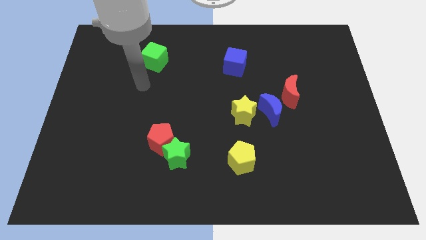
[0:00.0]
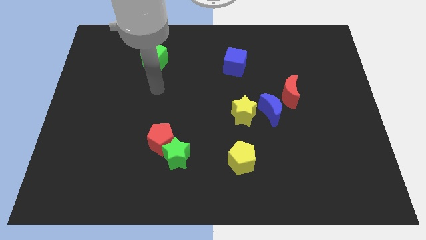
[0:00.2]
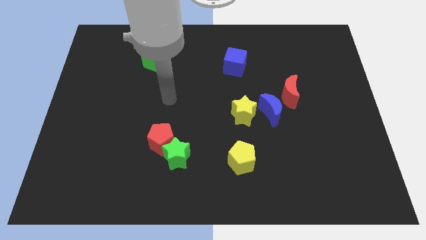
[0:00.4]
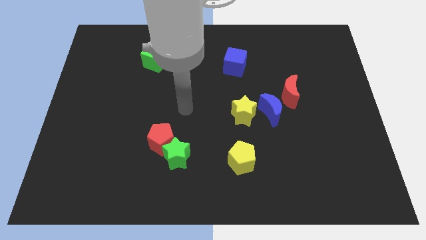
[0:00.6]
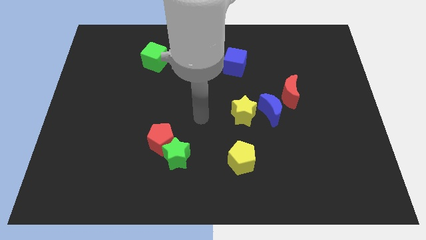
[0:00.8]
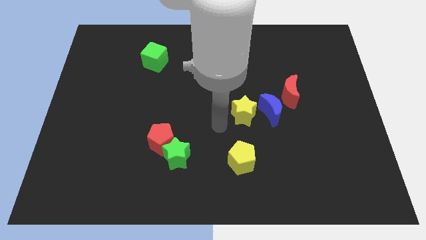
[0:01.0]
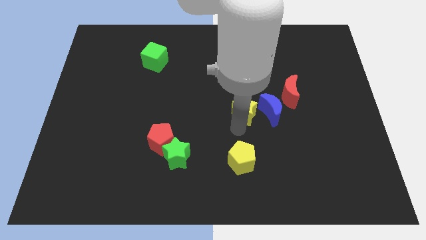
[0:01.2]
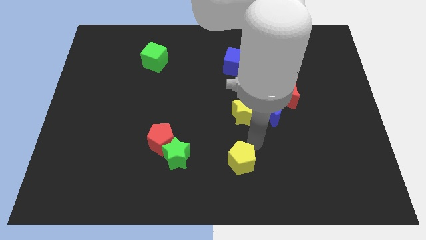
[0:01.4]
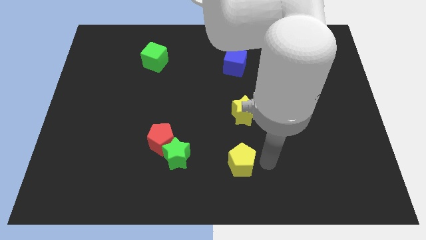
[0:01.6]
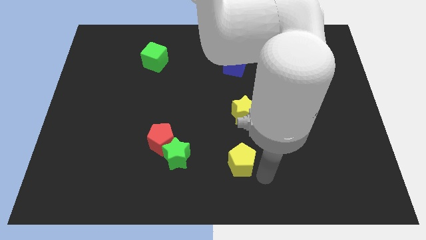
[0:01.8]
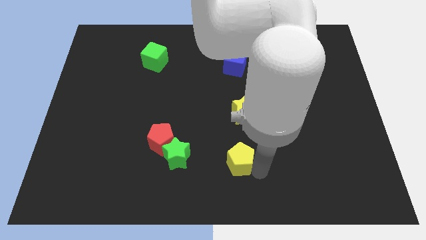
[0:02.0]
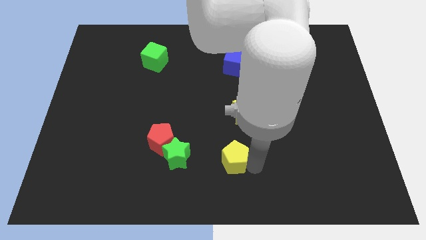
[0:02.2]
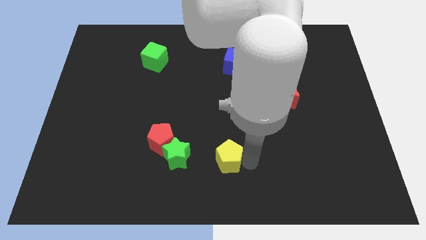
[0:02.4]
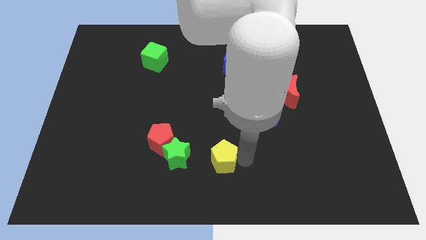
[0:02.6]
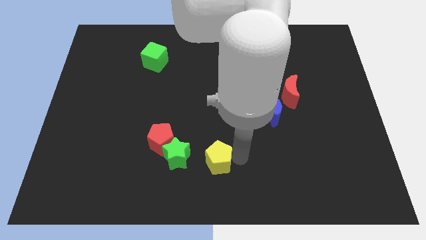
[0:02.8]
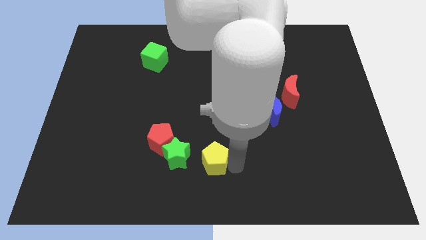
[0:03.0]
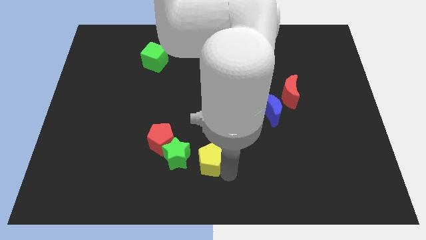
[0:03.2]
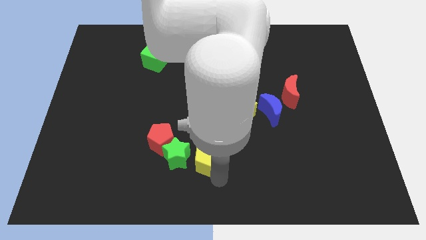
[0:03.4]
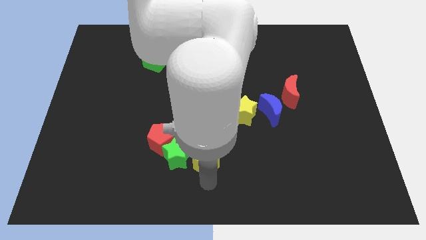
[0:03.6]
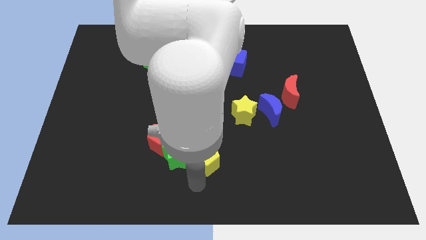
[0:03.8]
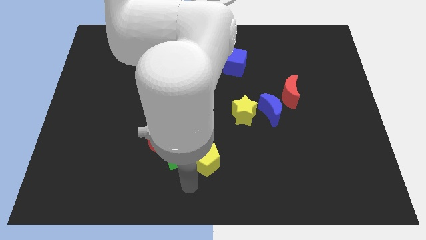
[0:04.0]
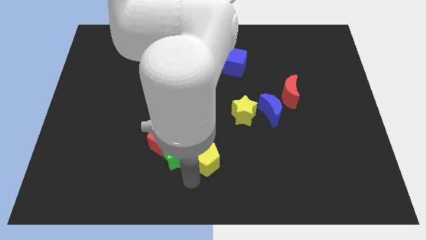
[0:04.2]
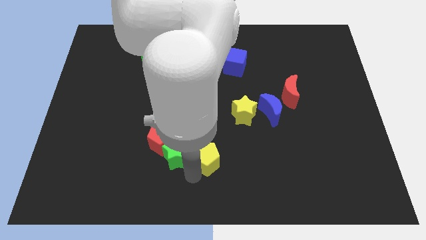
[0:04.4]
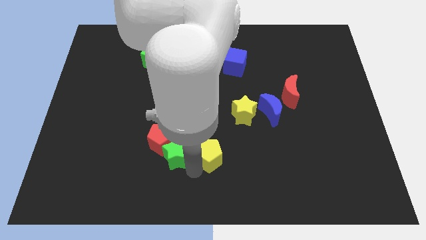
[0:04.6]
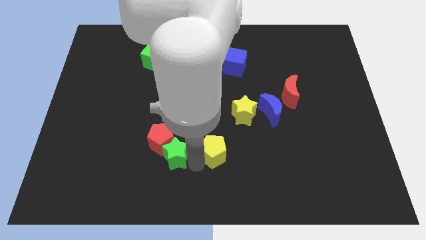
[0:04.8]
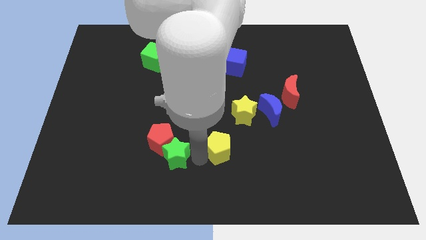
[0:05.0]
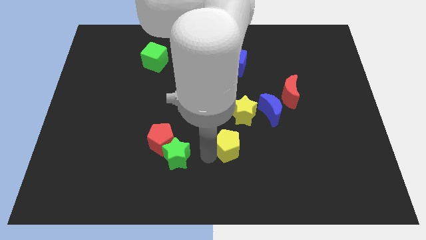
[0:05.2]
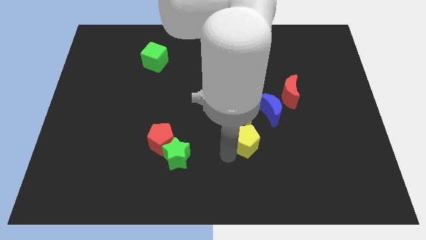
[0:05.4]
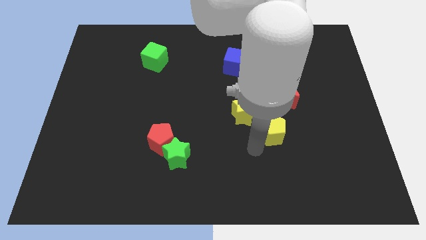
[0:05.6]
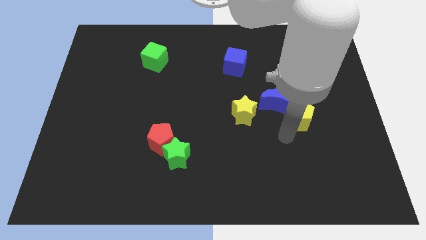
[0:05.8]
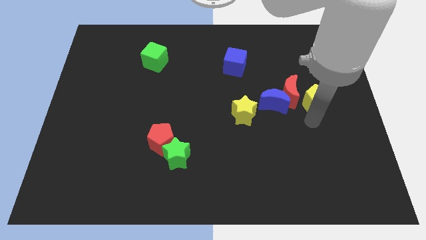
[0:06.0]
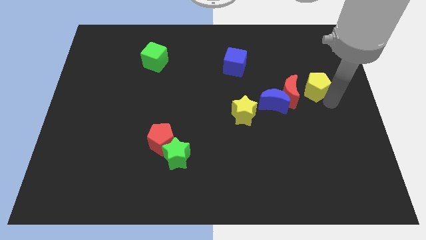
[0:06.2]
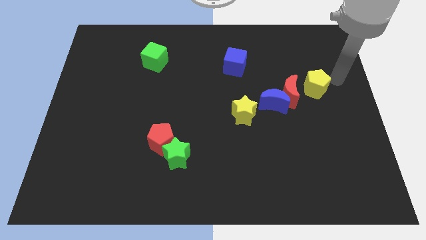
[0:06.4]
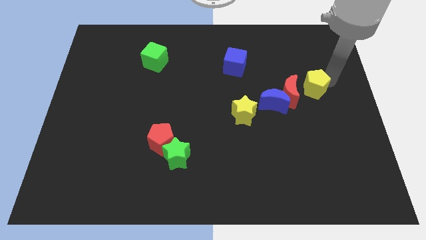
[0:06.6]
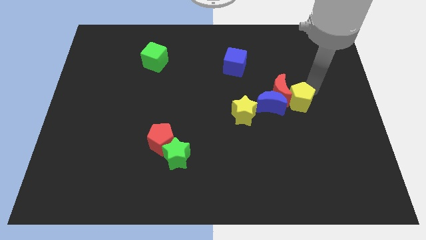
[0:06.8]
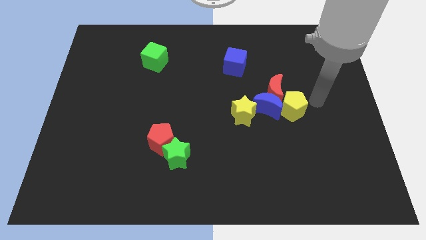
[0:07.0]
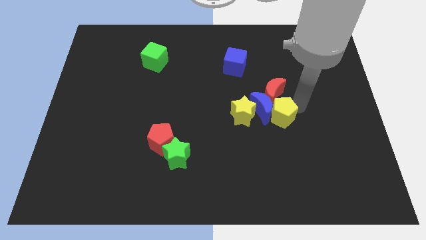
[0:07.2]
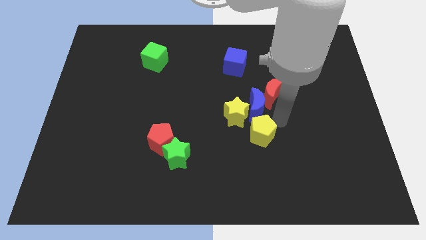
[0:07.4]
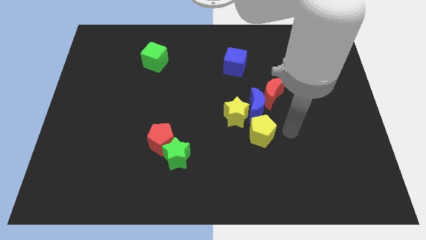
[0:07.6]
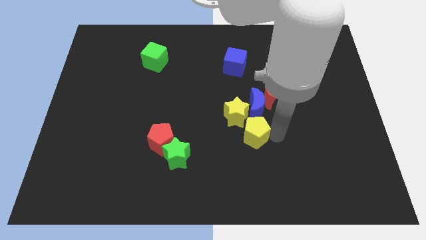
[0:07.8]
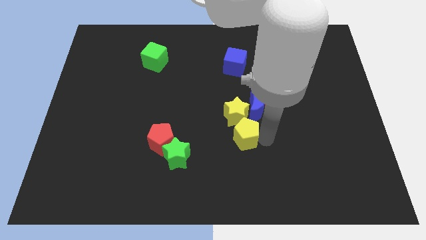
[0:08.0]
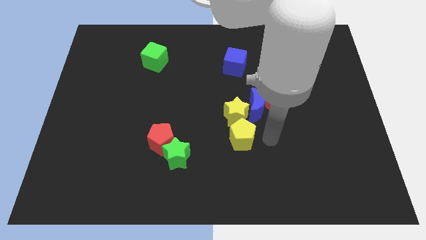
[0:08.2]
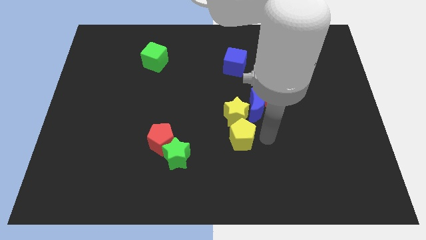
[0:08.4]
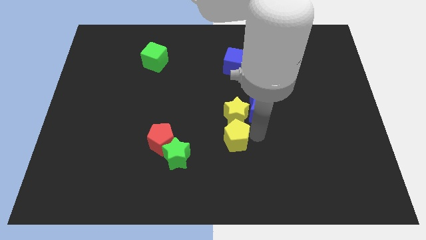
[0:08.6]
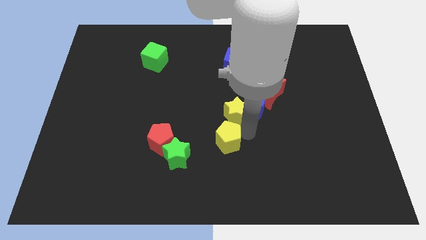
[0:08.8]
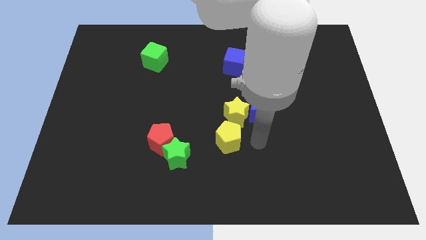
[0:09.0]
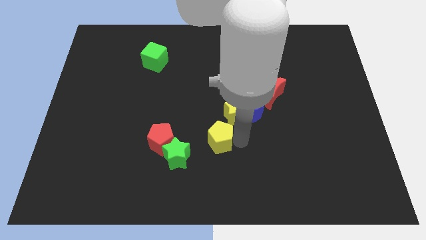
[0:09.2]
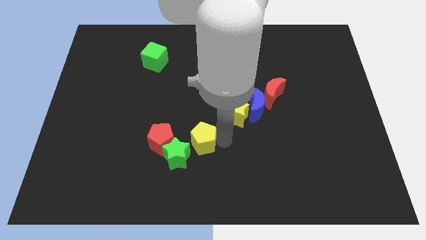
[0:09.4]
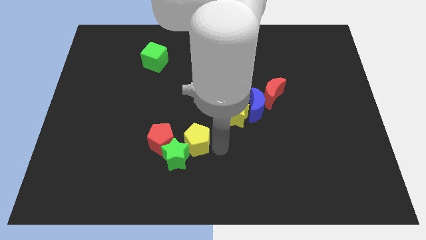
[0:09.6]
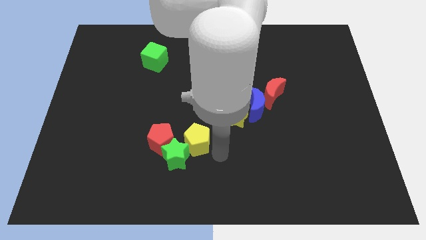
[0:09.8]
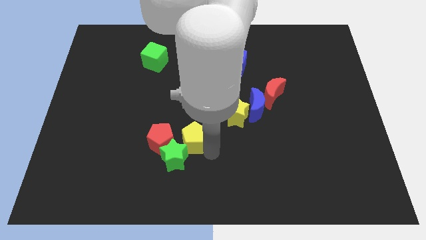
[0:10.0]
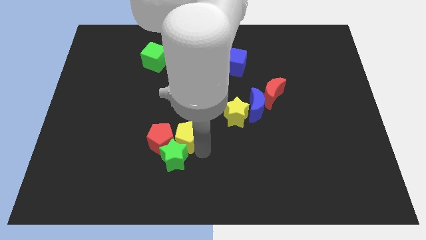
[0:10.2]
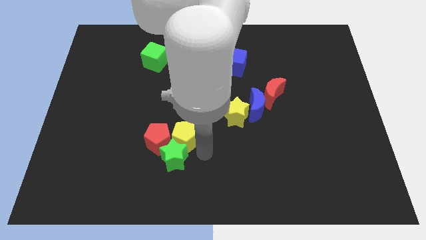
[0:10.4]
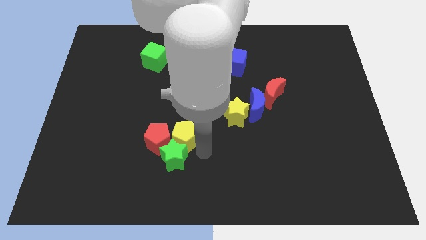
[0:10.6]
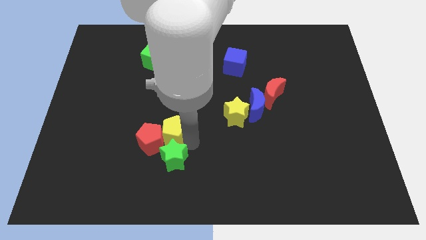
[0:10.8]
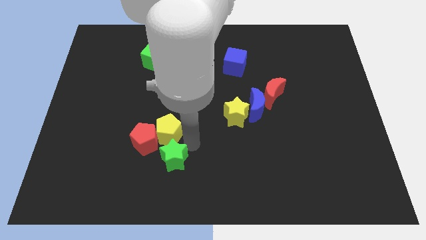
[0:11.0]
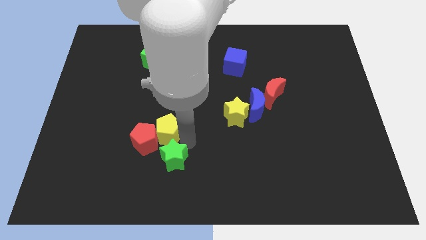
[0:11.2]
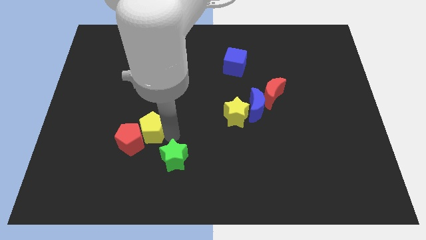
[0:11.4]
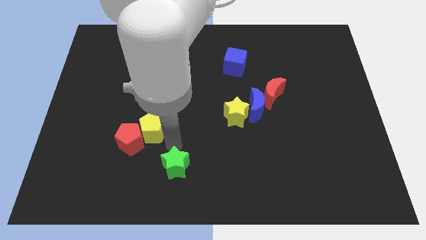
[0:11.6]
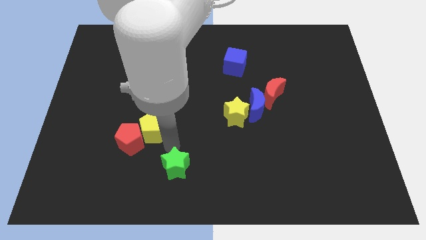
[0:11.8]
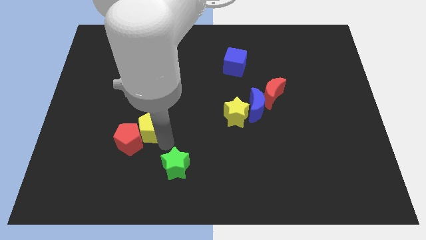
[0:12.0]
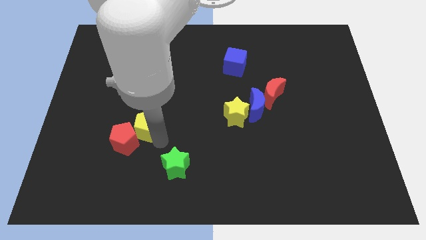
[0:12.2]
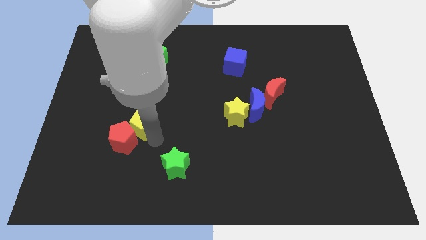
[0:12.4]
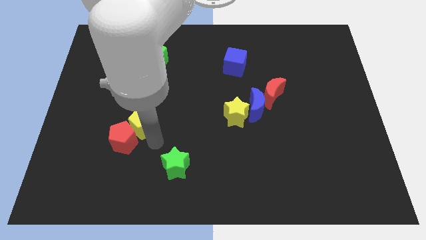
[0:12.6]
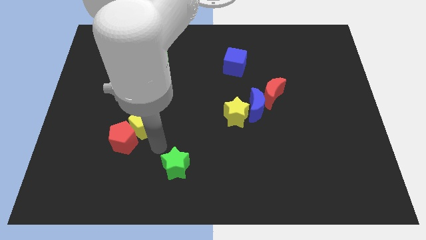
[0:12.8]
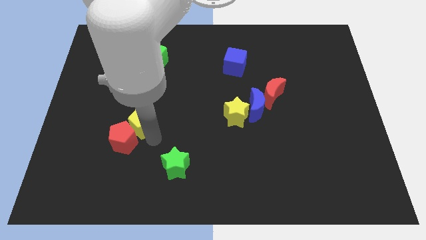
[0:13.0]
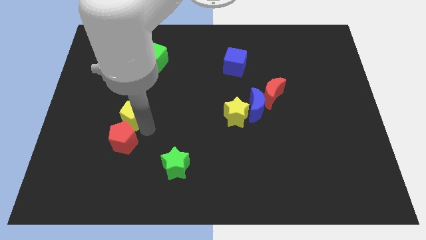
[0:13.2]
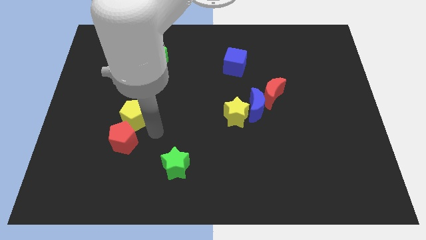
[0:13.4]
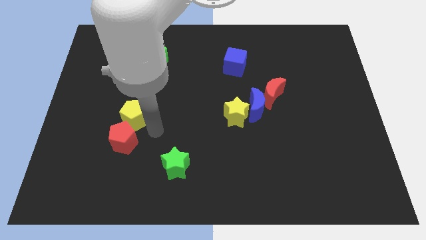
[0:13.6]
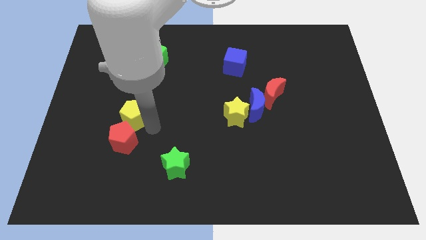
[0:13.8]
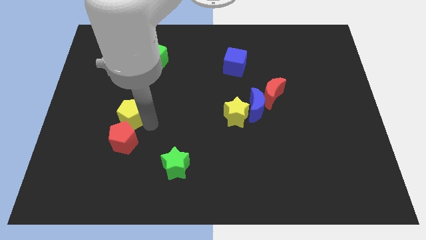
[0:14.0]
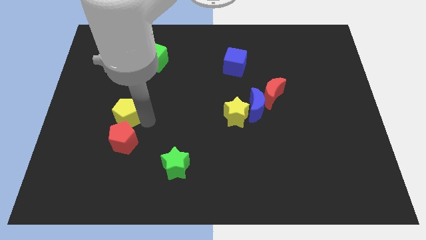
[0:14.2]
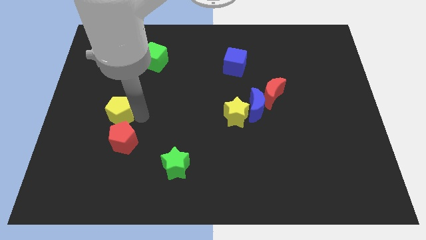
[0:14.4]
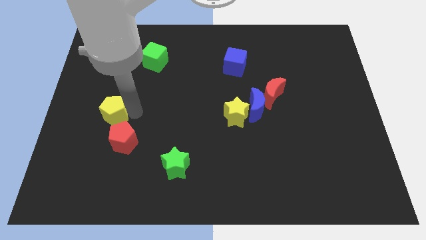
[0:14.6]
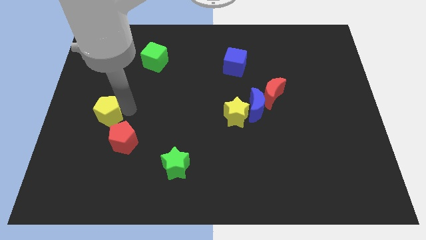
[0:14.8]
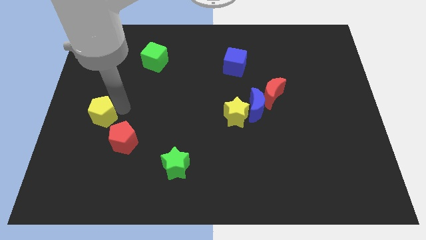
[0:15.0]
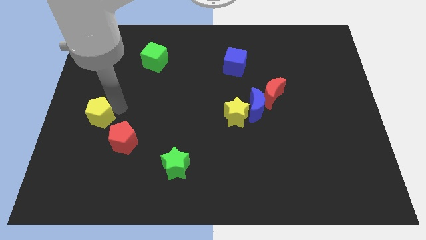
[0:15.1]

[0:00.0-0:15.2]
put the yellow pentagon to the center left
